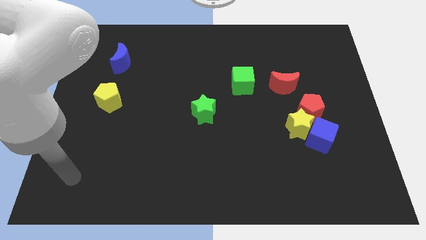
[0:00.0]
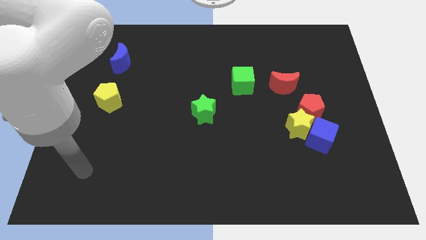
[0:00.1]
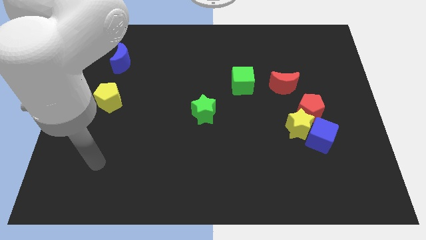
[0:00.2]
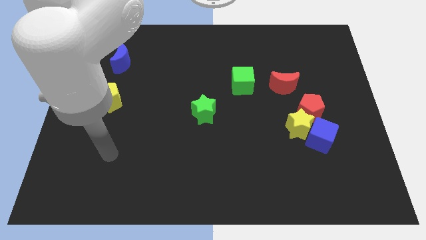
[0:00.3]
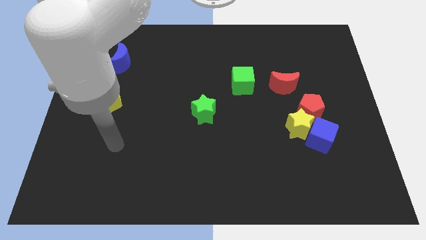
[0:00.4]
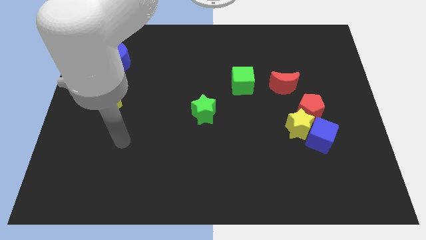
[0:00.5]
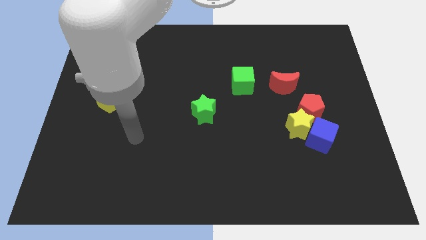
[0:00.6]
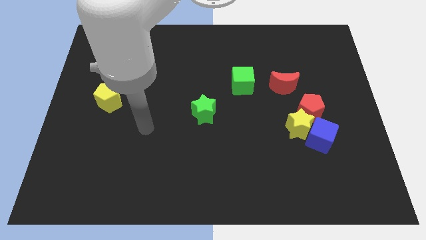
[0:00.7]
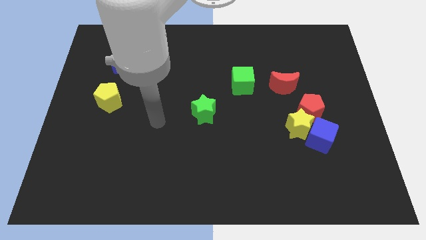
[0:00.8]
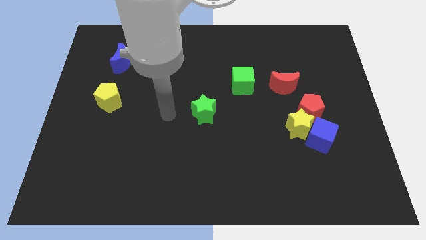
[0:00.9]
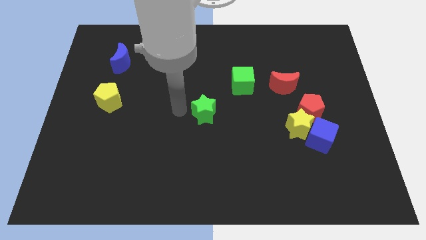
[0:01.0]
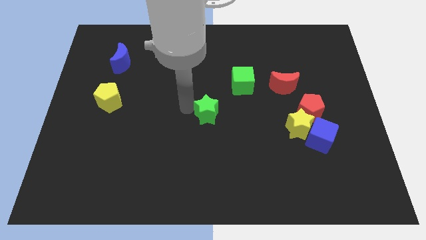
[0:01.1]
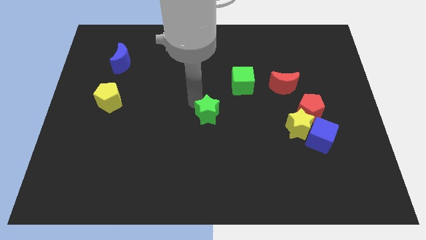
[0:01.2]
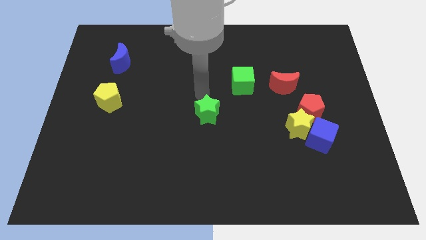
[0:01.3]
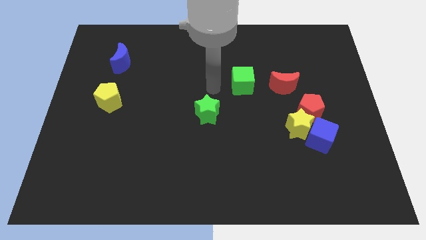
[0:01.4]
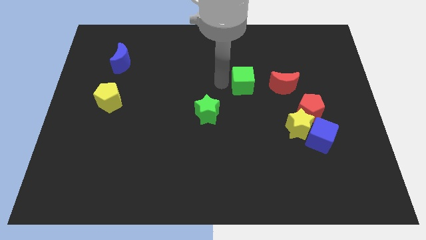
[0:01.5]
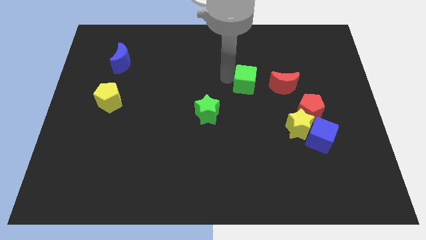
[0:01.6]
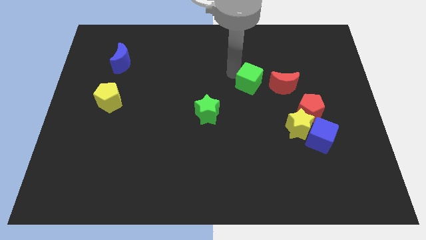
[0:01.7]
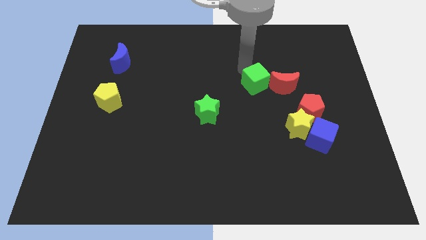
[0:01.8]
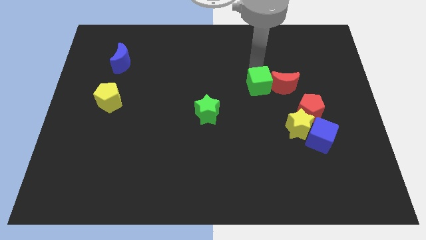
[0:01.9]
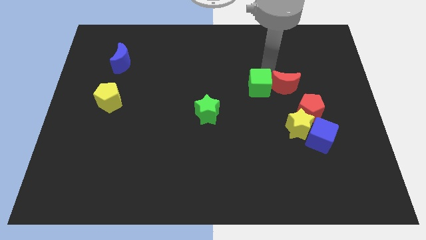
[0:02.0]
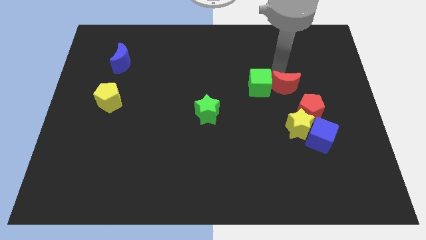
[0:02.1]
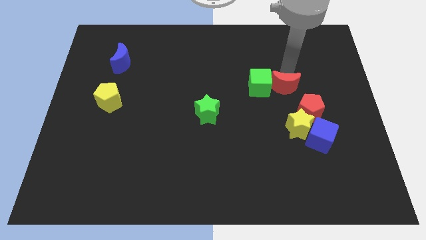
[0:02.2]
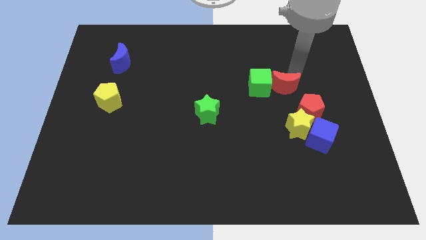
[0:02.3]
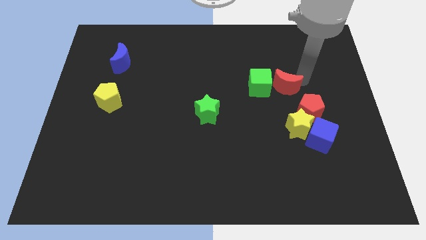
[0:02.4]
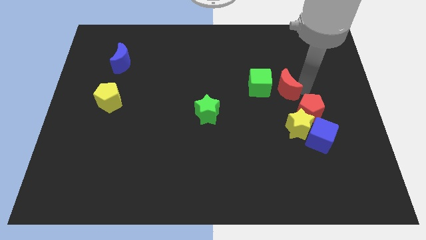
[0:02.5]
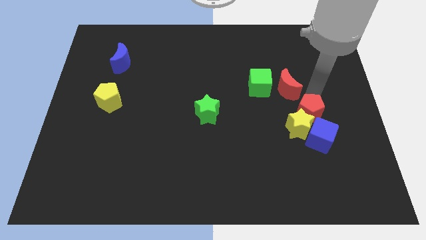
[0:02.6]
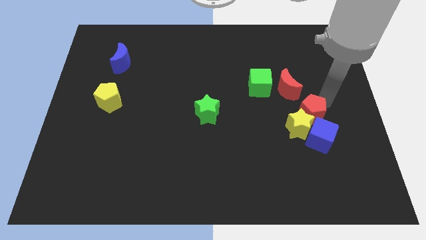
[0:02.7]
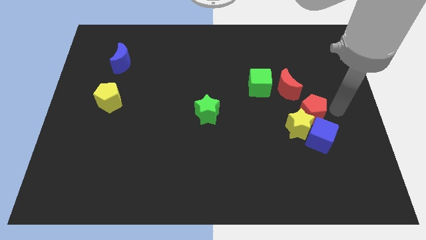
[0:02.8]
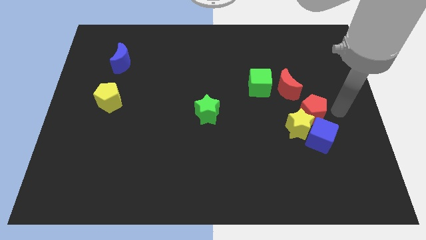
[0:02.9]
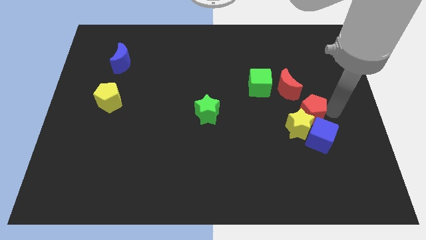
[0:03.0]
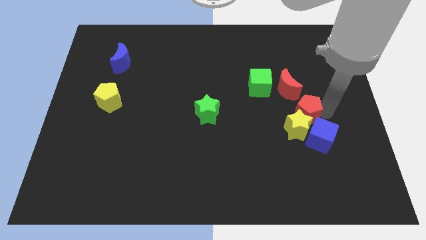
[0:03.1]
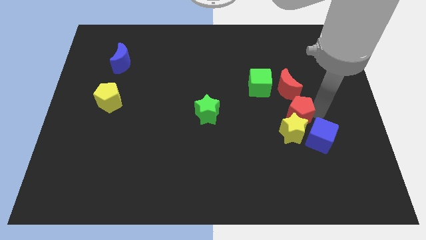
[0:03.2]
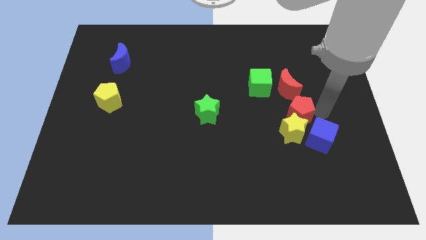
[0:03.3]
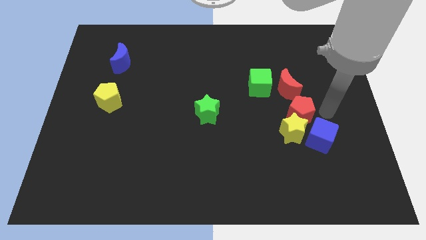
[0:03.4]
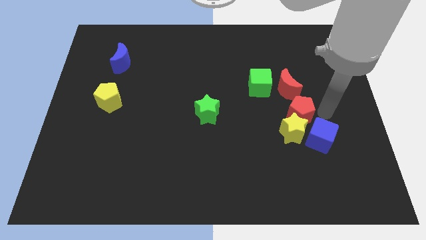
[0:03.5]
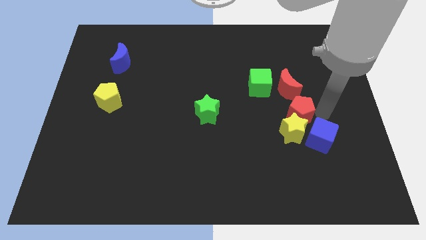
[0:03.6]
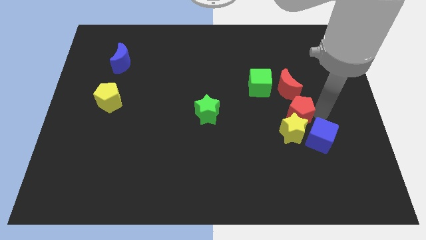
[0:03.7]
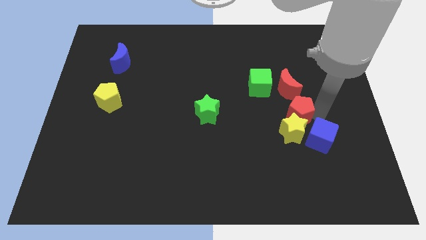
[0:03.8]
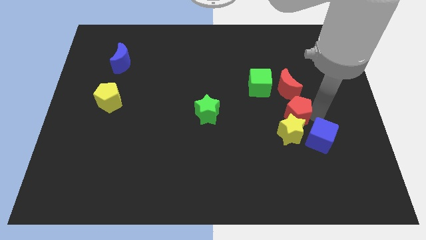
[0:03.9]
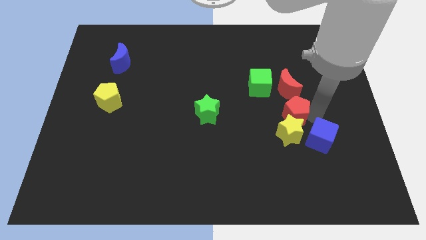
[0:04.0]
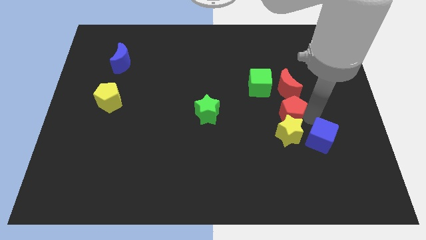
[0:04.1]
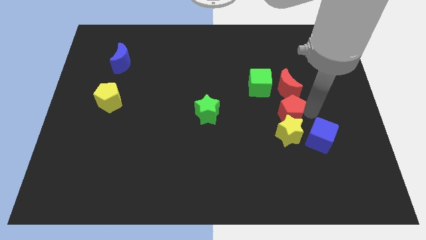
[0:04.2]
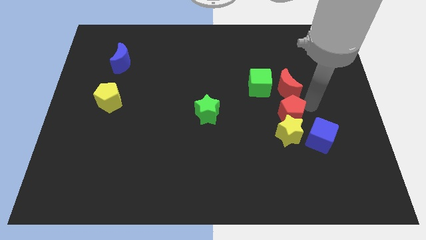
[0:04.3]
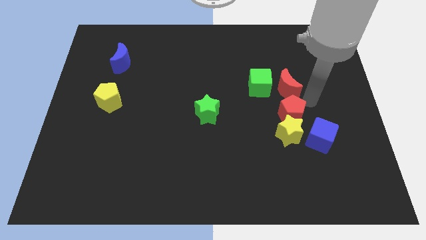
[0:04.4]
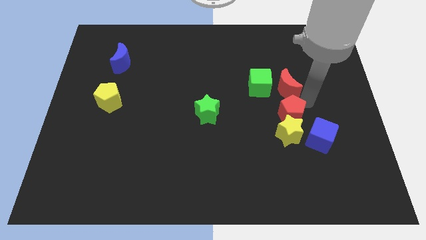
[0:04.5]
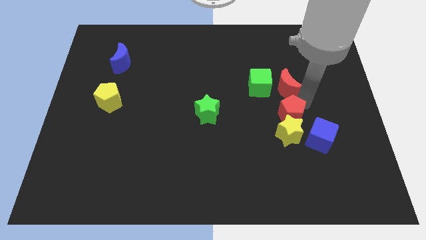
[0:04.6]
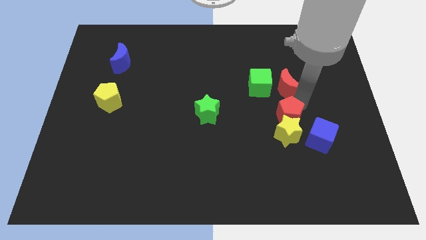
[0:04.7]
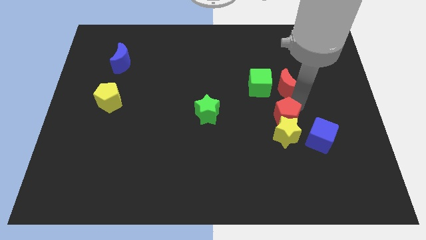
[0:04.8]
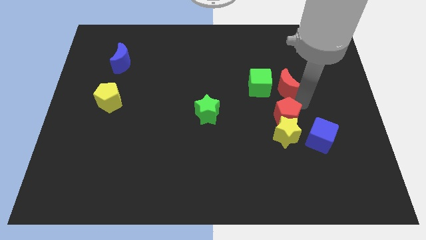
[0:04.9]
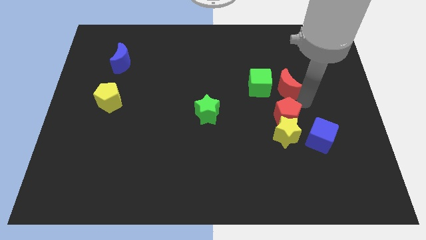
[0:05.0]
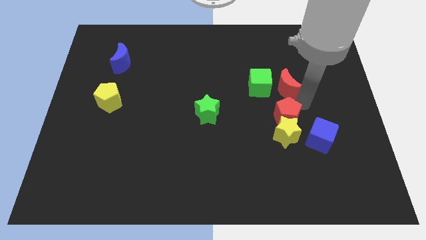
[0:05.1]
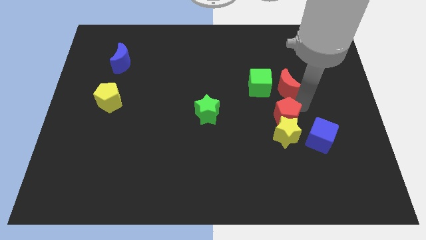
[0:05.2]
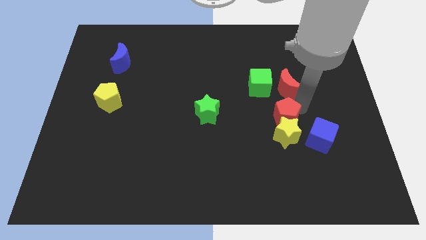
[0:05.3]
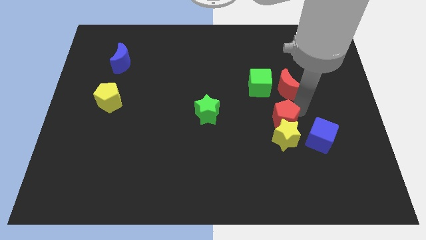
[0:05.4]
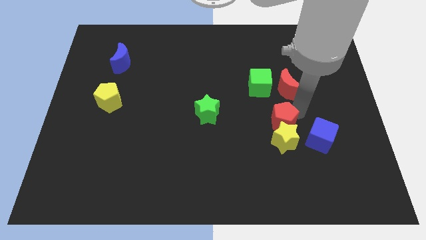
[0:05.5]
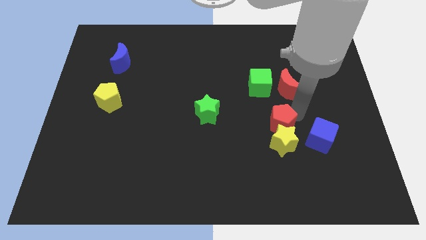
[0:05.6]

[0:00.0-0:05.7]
slightly slide the red pentagon down and then left

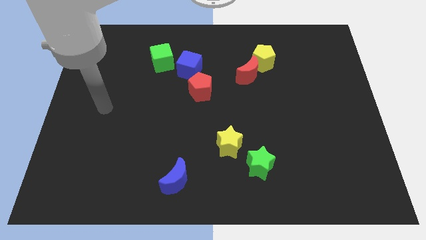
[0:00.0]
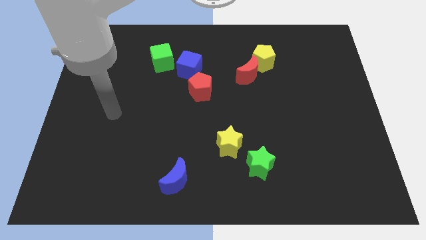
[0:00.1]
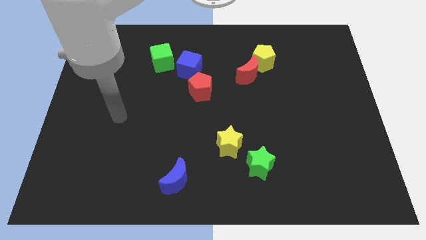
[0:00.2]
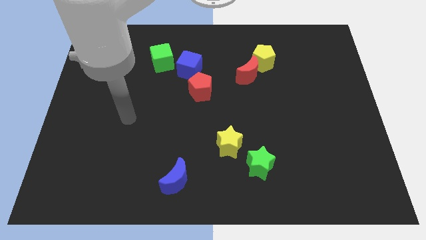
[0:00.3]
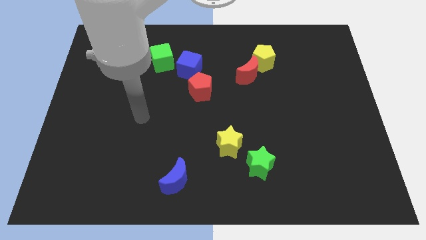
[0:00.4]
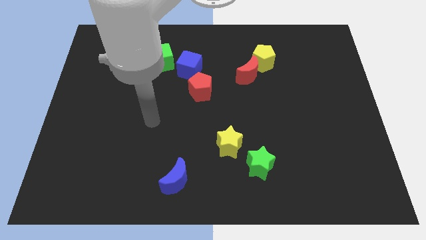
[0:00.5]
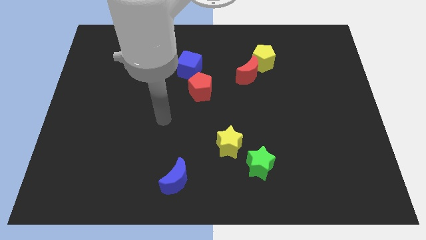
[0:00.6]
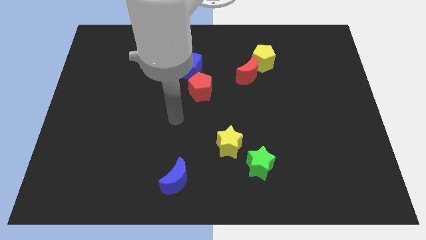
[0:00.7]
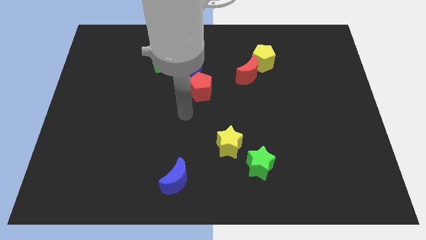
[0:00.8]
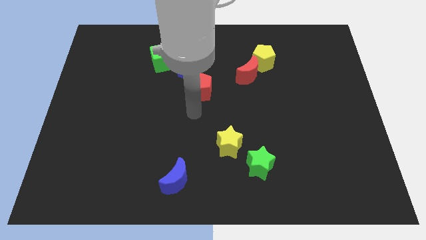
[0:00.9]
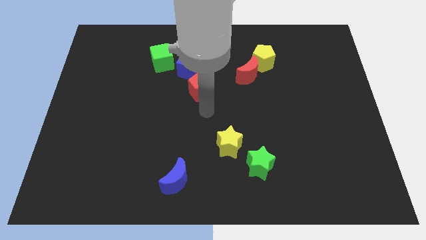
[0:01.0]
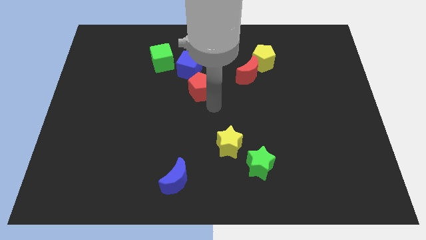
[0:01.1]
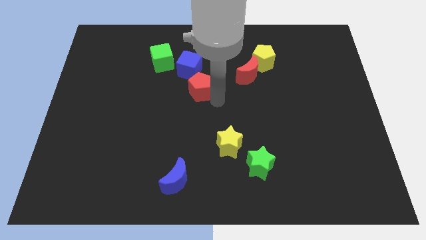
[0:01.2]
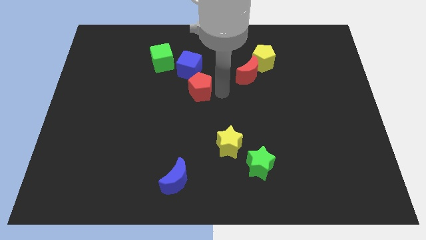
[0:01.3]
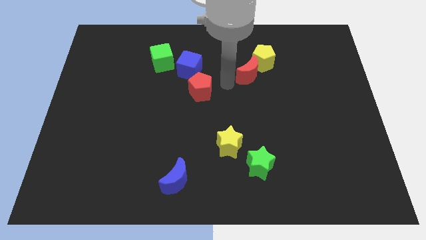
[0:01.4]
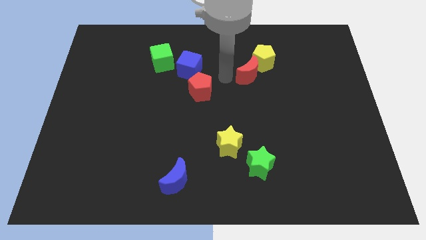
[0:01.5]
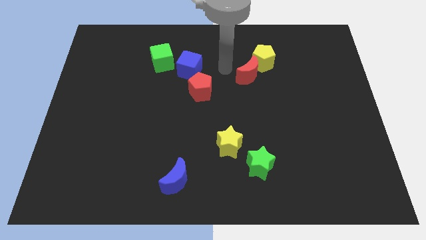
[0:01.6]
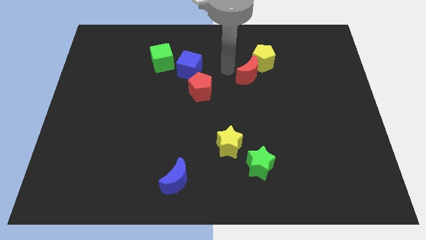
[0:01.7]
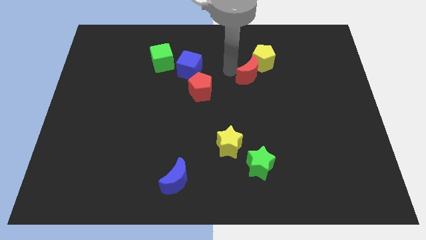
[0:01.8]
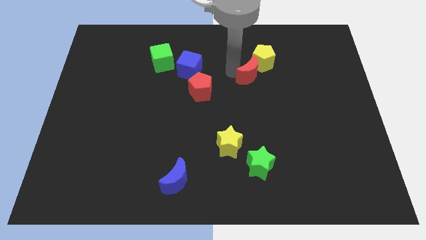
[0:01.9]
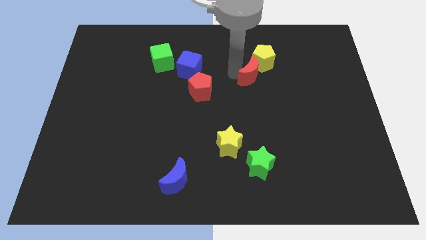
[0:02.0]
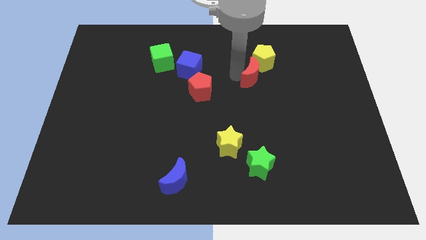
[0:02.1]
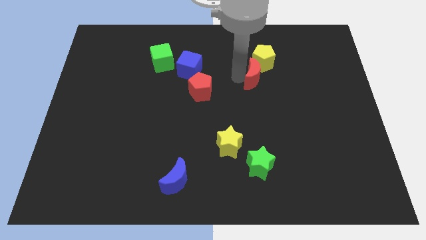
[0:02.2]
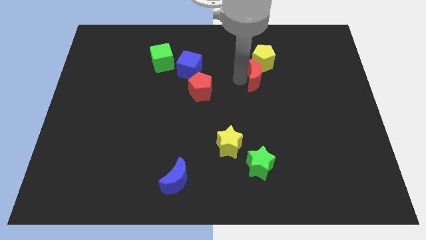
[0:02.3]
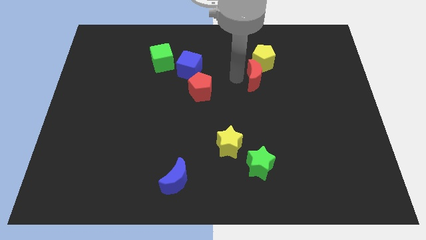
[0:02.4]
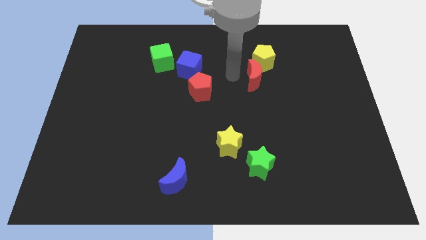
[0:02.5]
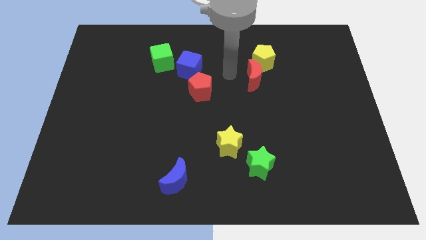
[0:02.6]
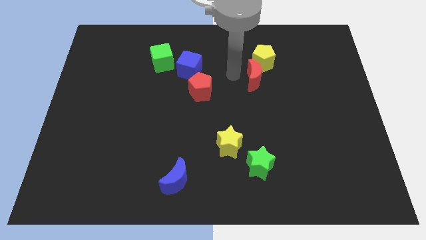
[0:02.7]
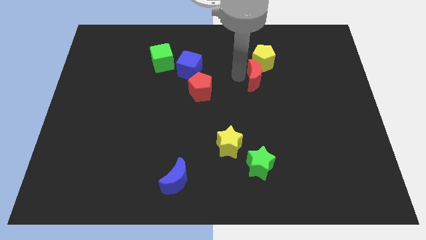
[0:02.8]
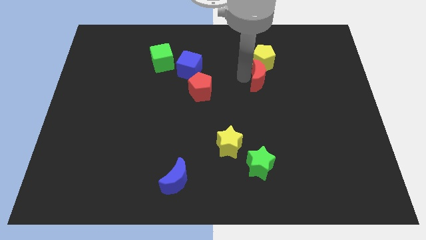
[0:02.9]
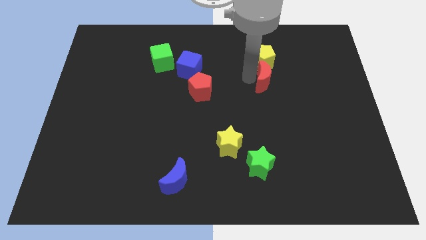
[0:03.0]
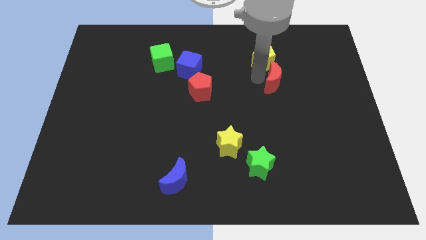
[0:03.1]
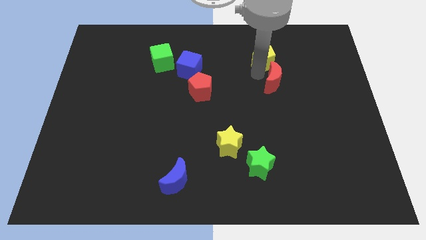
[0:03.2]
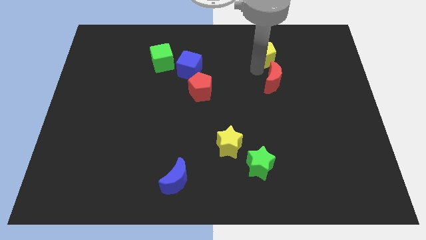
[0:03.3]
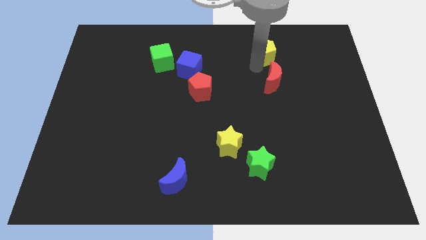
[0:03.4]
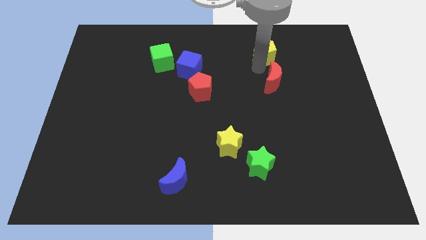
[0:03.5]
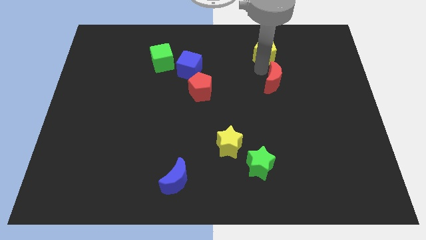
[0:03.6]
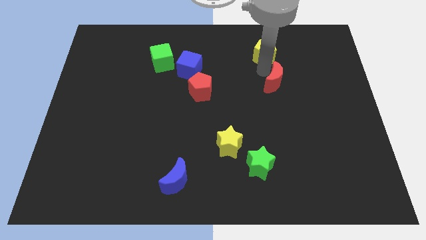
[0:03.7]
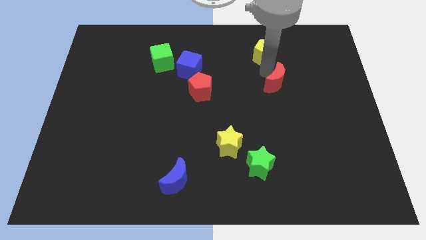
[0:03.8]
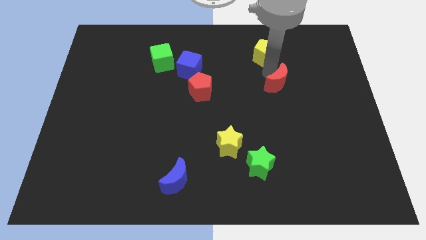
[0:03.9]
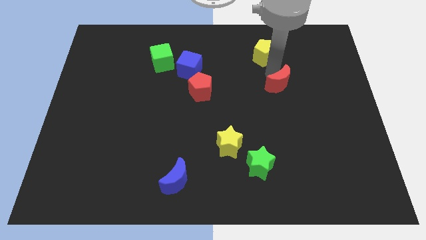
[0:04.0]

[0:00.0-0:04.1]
slide the red moon down and then right a little
